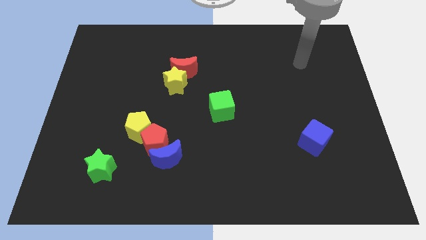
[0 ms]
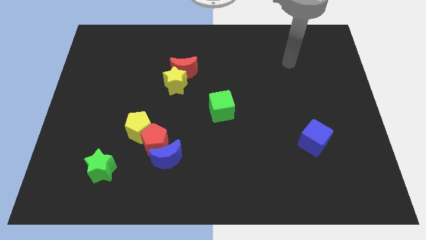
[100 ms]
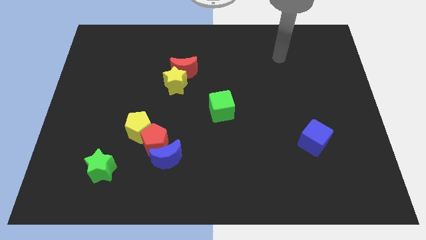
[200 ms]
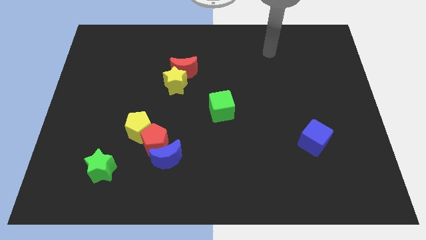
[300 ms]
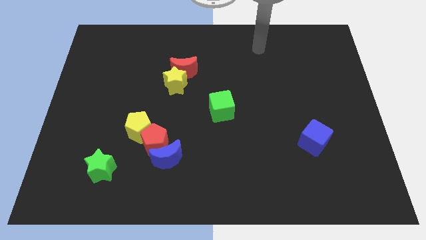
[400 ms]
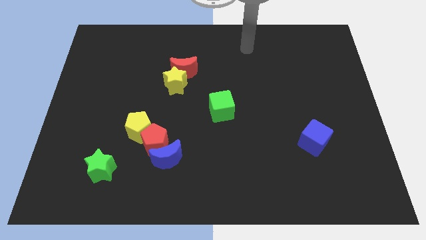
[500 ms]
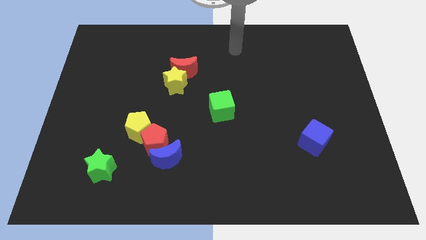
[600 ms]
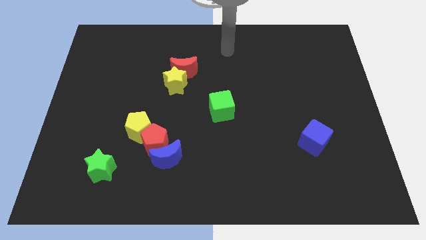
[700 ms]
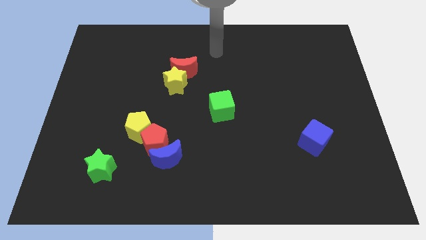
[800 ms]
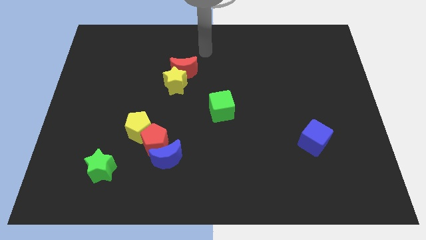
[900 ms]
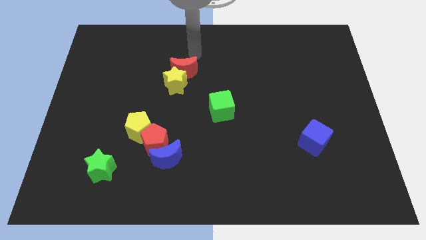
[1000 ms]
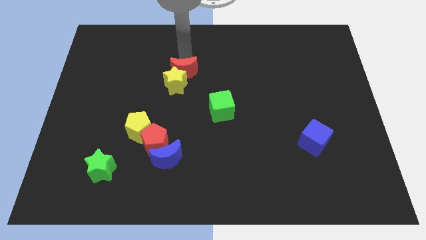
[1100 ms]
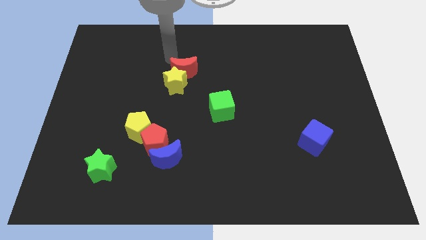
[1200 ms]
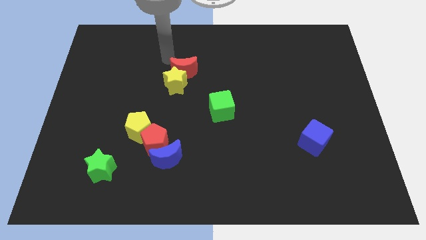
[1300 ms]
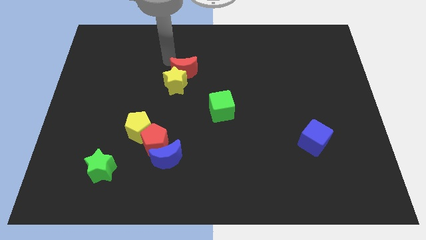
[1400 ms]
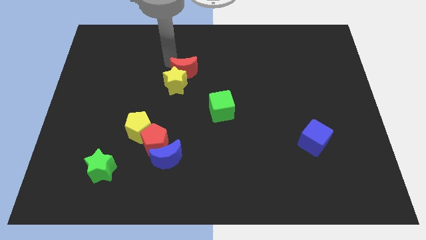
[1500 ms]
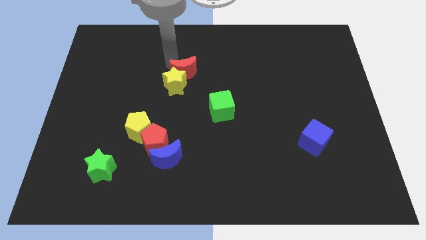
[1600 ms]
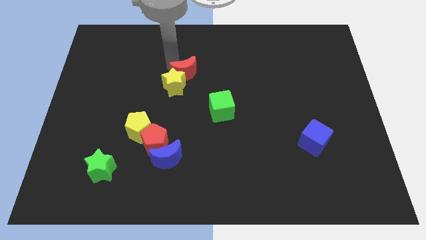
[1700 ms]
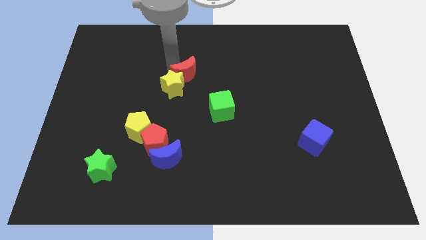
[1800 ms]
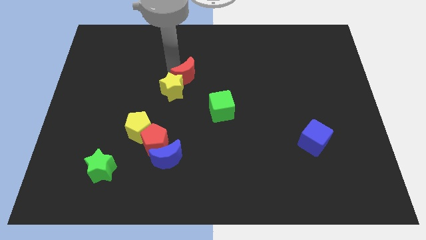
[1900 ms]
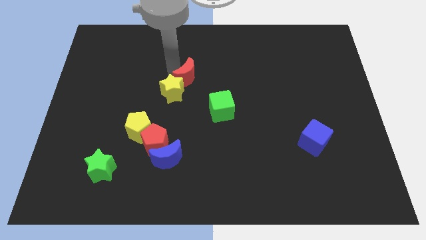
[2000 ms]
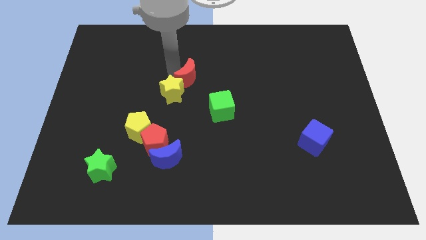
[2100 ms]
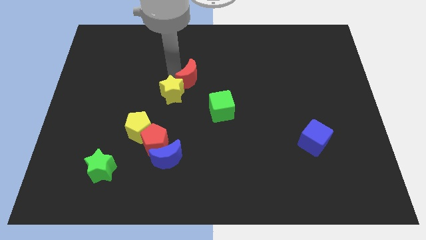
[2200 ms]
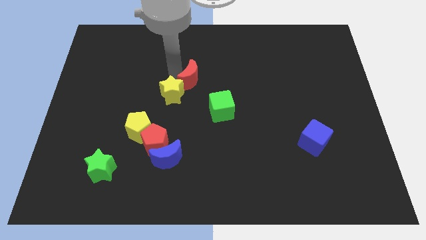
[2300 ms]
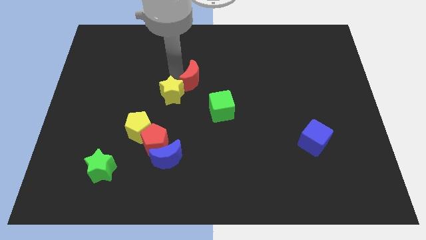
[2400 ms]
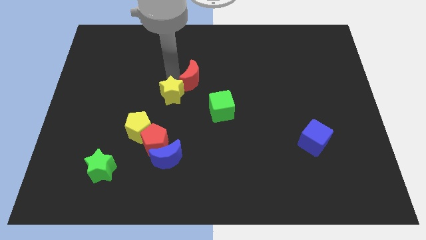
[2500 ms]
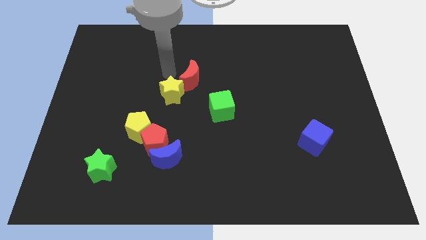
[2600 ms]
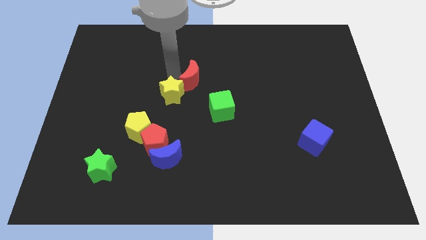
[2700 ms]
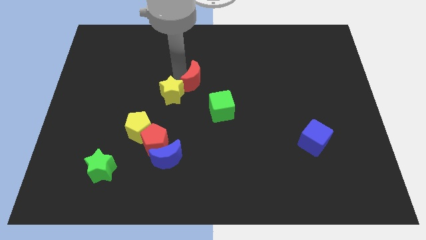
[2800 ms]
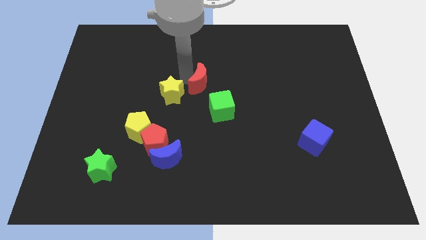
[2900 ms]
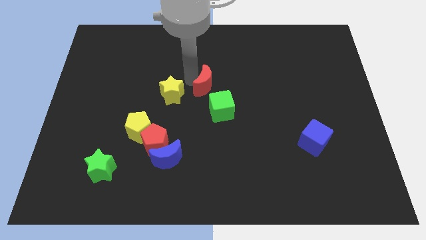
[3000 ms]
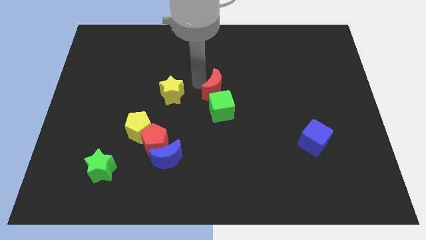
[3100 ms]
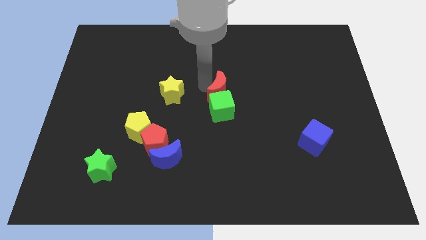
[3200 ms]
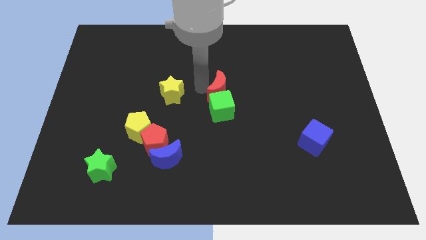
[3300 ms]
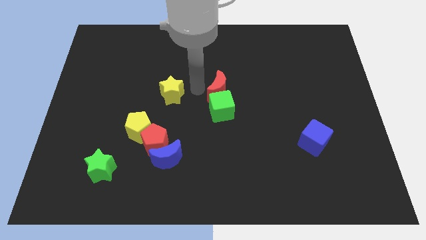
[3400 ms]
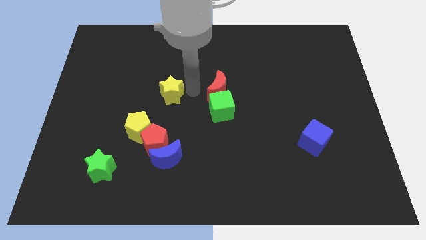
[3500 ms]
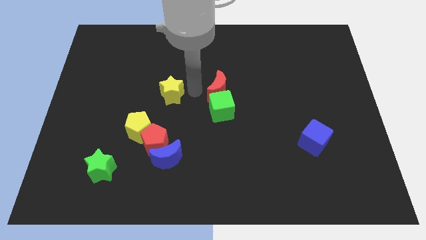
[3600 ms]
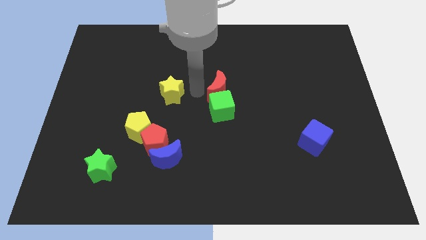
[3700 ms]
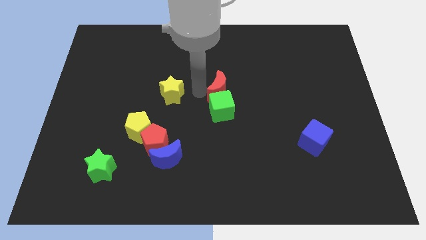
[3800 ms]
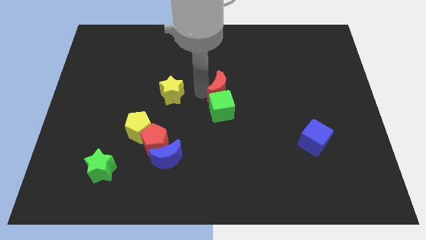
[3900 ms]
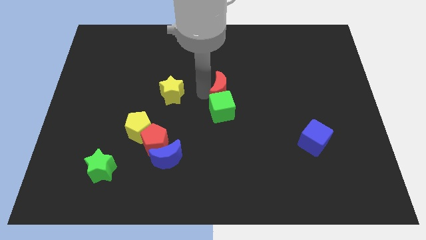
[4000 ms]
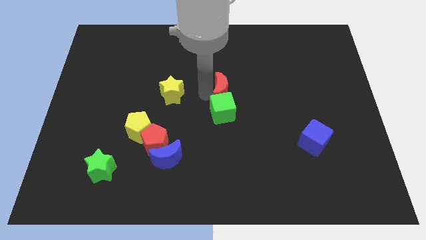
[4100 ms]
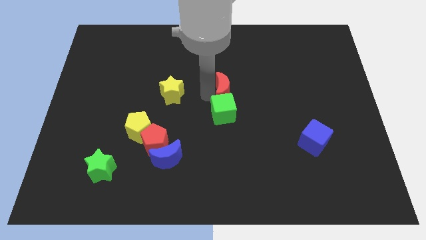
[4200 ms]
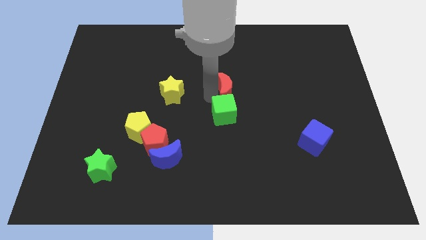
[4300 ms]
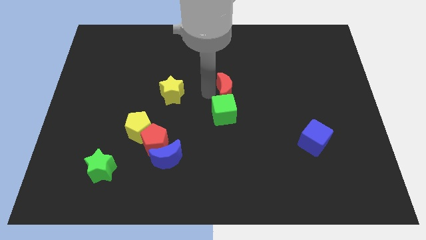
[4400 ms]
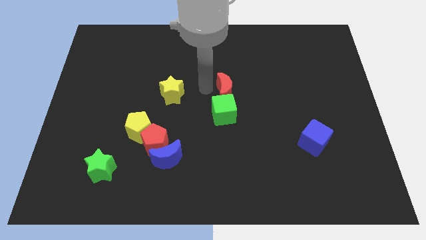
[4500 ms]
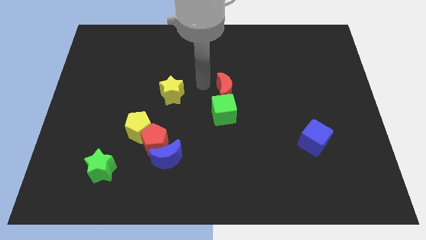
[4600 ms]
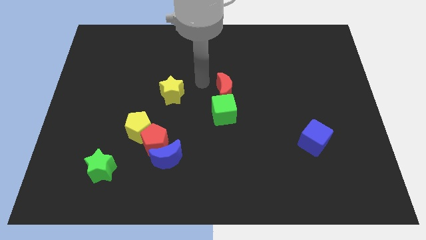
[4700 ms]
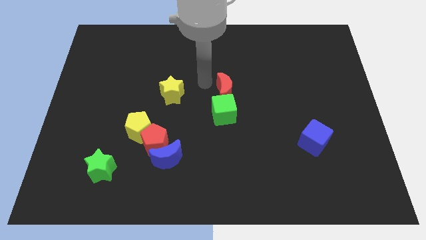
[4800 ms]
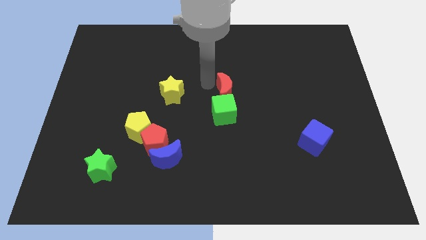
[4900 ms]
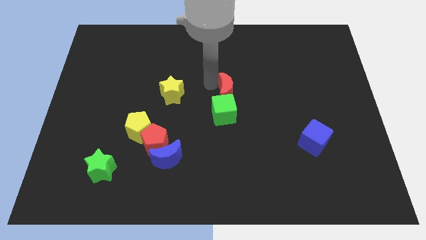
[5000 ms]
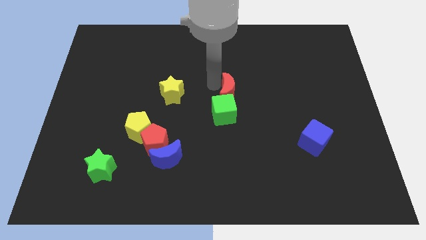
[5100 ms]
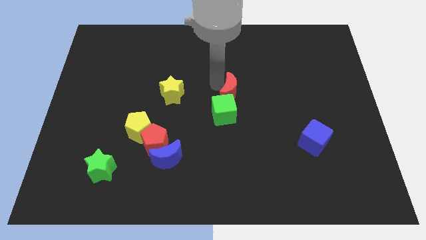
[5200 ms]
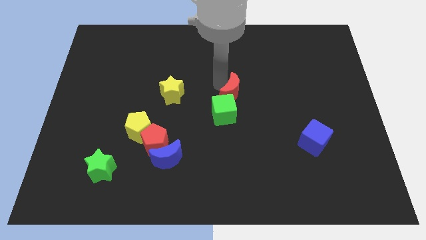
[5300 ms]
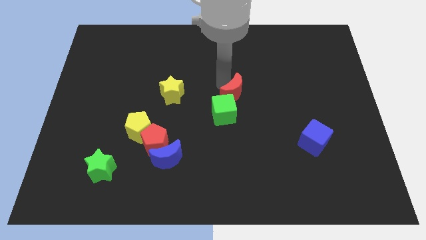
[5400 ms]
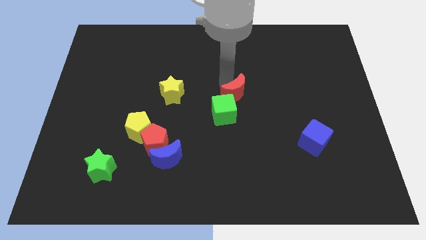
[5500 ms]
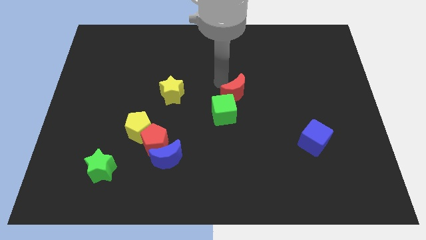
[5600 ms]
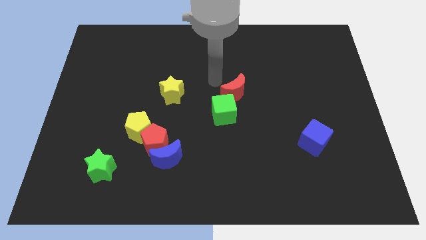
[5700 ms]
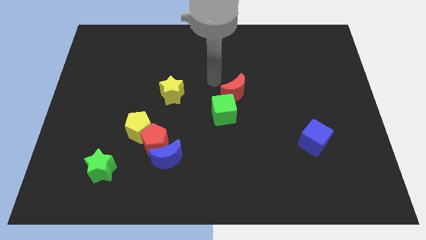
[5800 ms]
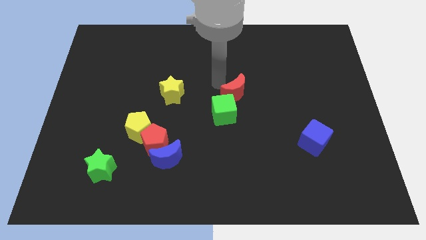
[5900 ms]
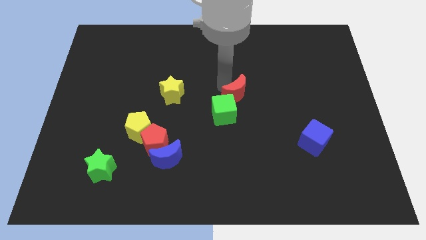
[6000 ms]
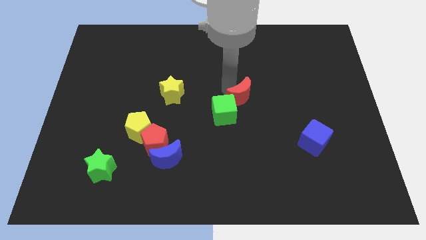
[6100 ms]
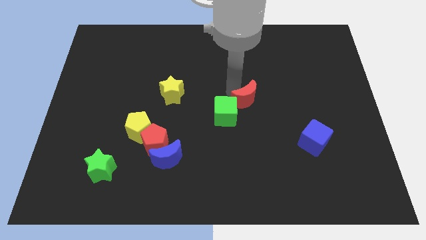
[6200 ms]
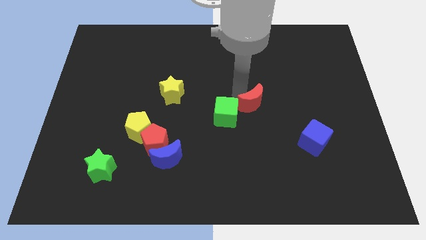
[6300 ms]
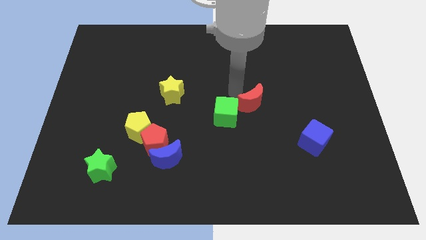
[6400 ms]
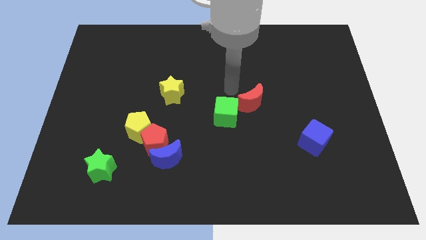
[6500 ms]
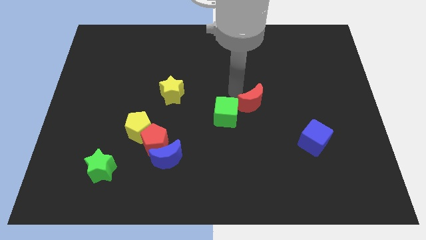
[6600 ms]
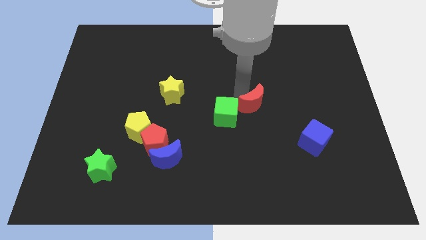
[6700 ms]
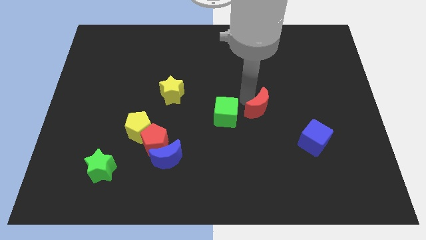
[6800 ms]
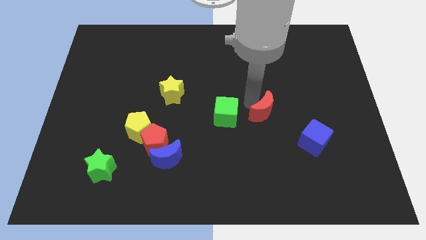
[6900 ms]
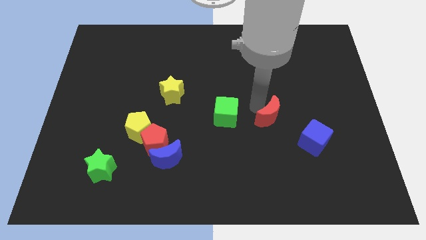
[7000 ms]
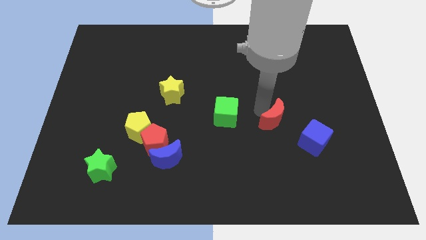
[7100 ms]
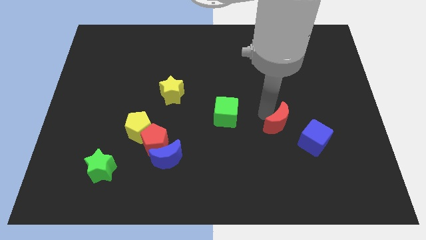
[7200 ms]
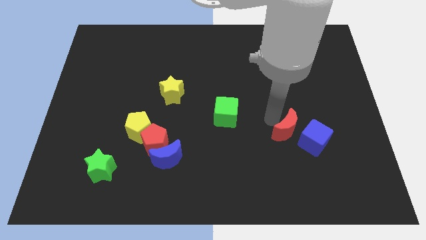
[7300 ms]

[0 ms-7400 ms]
push the red moon to the blue cube

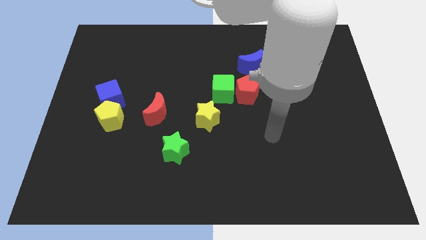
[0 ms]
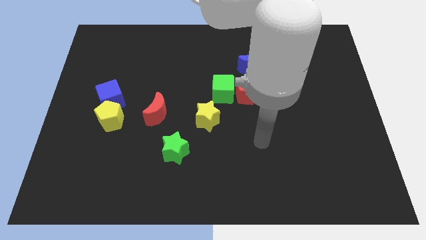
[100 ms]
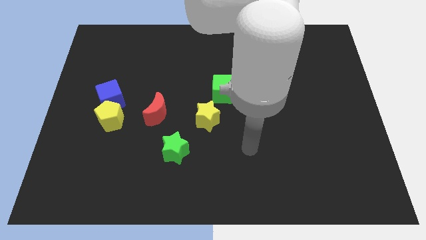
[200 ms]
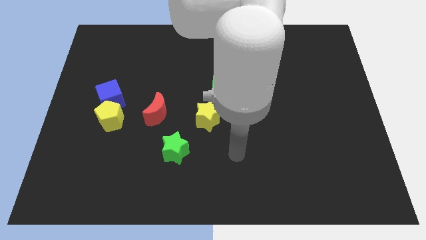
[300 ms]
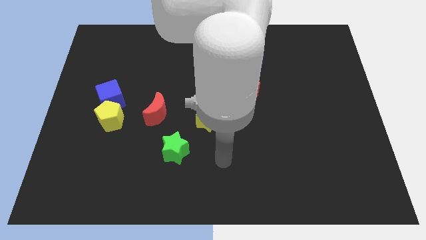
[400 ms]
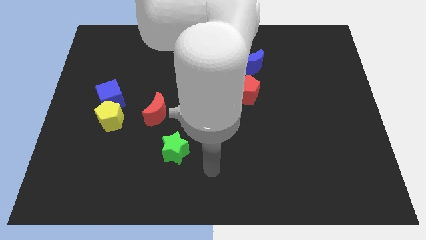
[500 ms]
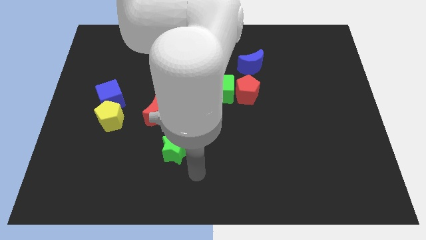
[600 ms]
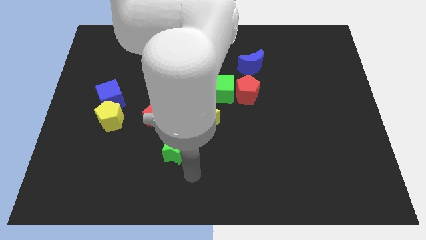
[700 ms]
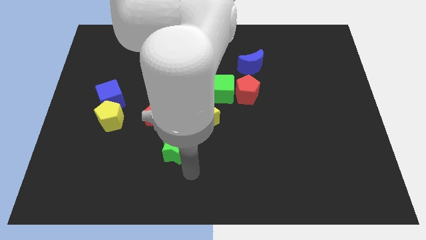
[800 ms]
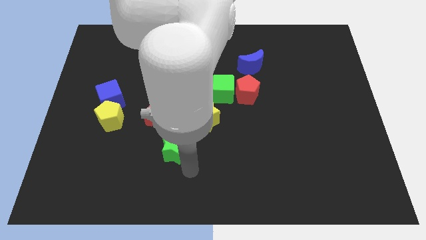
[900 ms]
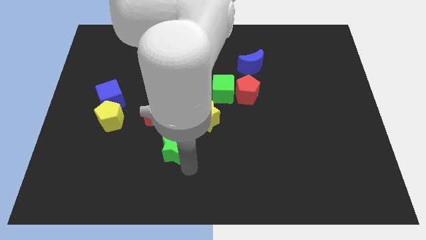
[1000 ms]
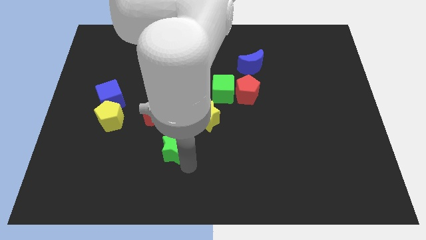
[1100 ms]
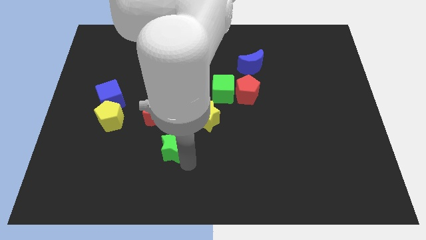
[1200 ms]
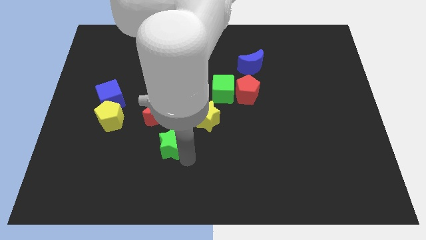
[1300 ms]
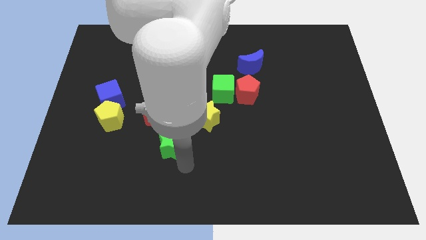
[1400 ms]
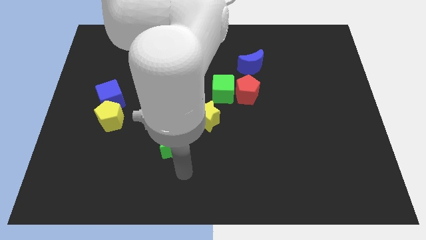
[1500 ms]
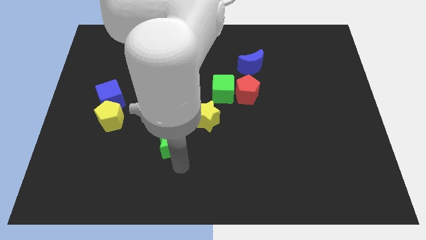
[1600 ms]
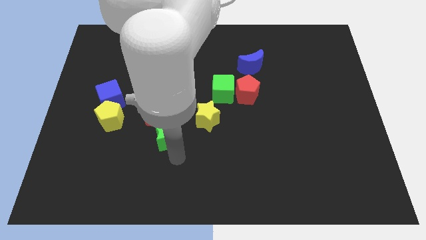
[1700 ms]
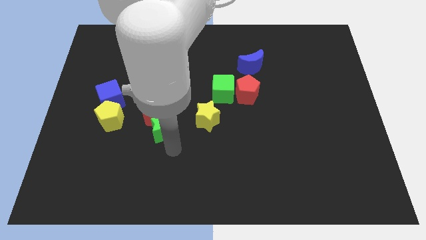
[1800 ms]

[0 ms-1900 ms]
put the green star towards the red moon
